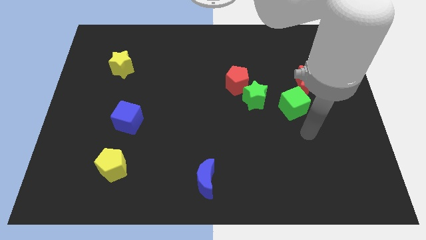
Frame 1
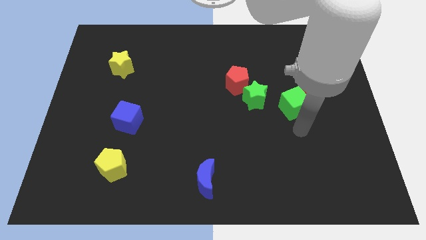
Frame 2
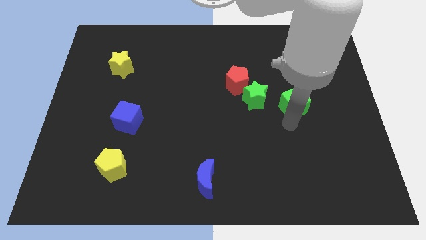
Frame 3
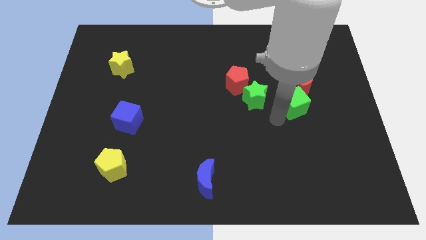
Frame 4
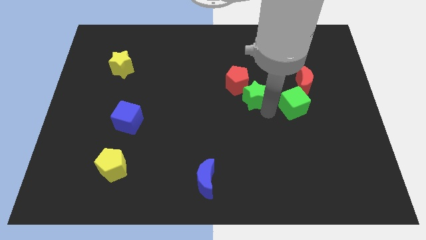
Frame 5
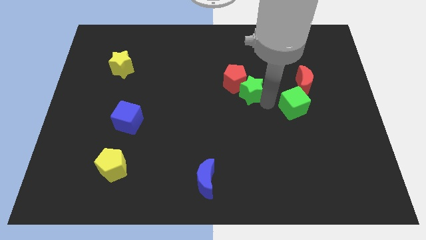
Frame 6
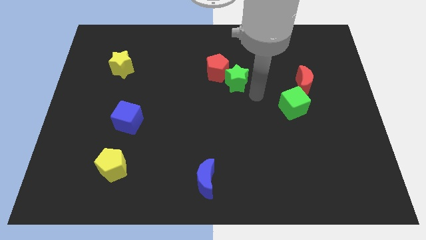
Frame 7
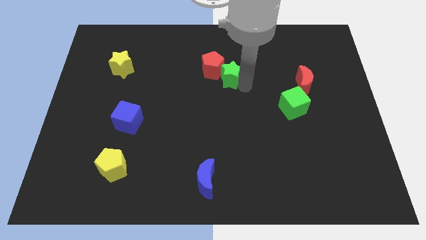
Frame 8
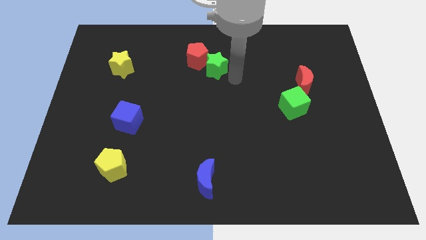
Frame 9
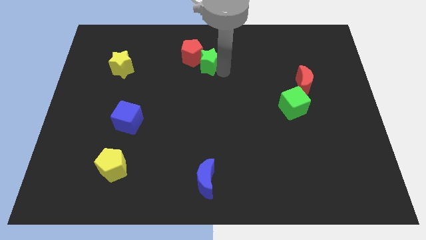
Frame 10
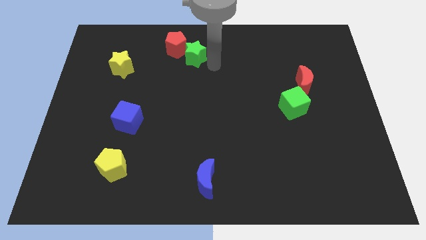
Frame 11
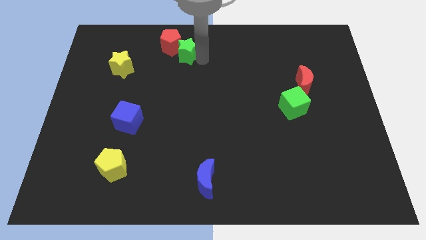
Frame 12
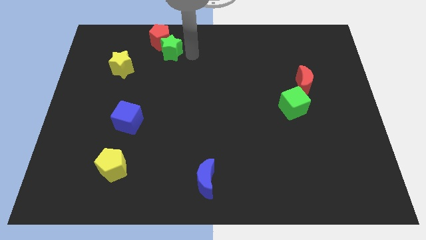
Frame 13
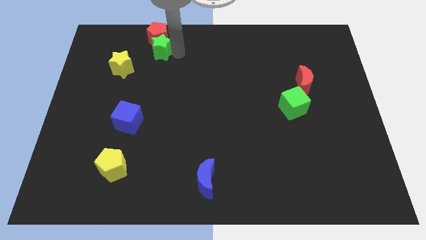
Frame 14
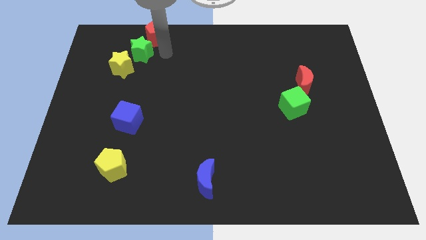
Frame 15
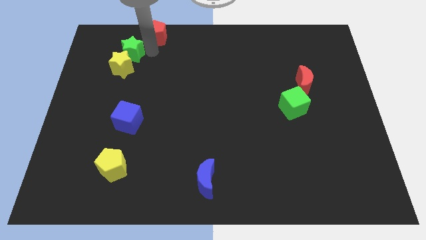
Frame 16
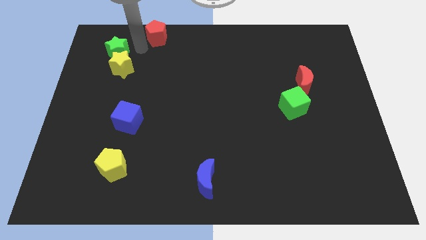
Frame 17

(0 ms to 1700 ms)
move the red pentagon away from the green star

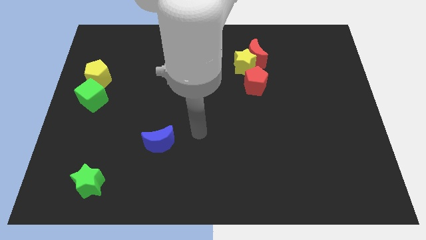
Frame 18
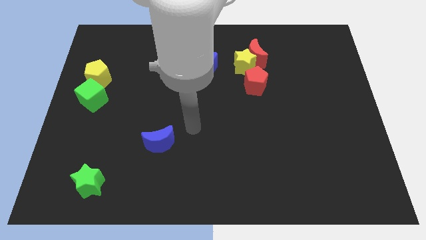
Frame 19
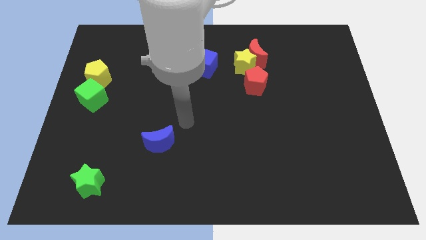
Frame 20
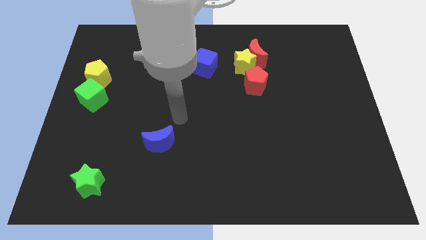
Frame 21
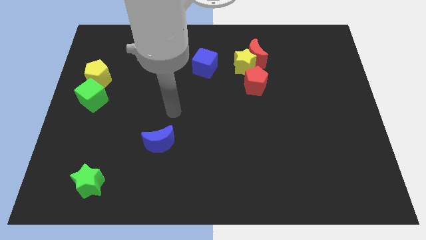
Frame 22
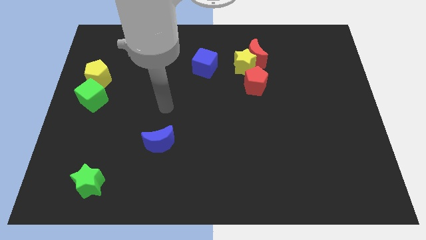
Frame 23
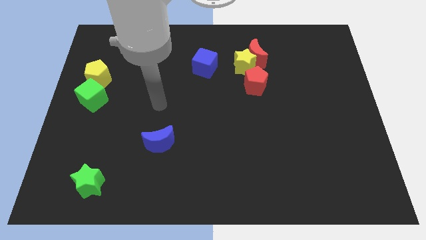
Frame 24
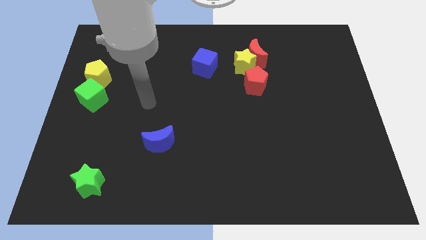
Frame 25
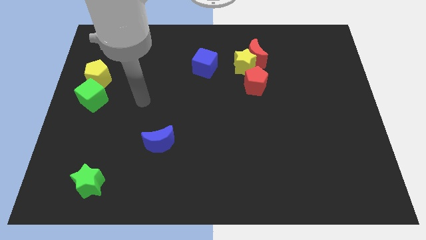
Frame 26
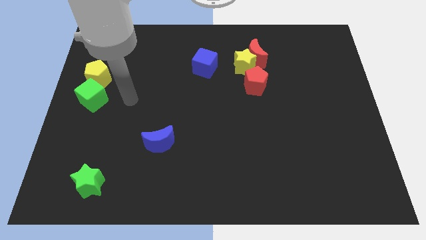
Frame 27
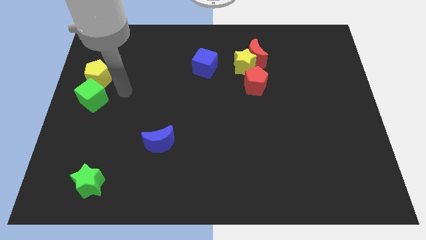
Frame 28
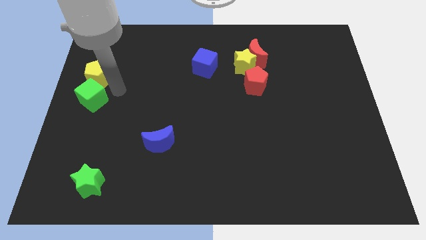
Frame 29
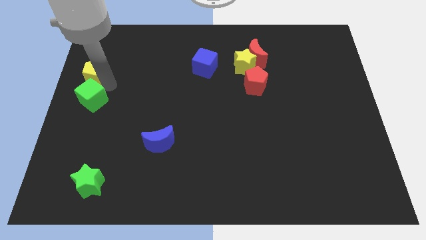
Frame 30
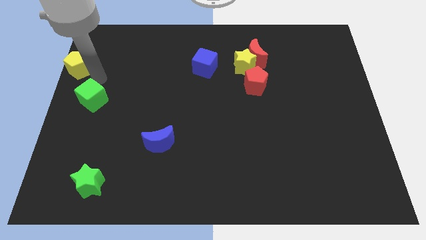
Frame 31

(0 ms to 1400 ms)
move the green cube away from the yellow pentagon

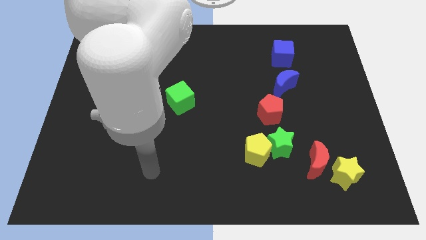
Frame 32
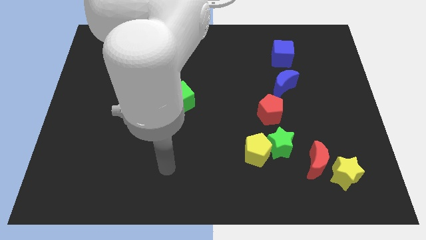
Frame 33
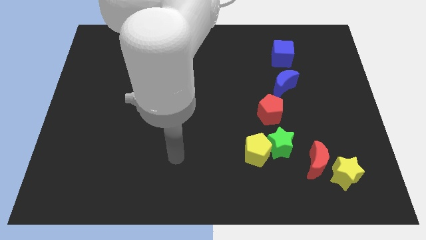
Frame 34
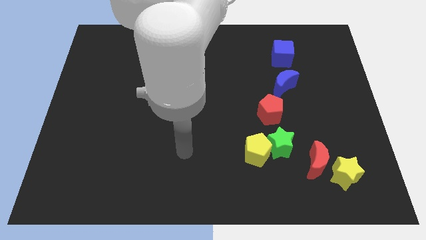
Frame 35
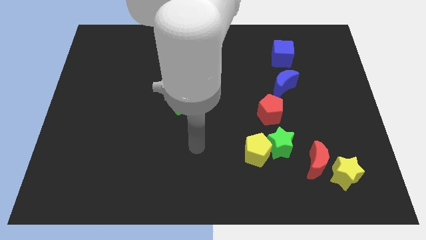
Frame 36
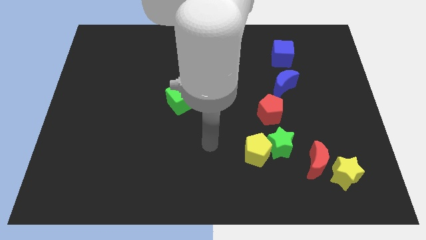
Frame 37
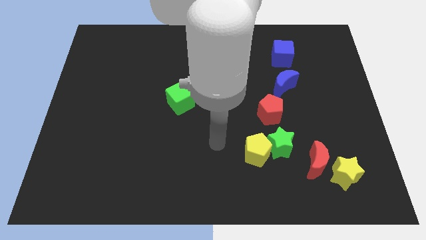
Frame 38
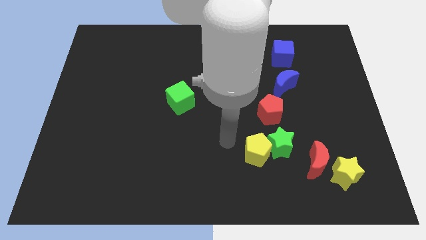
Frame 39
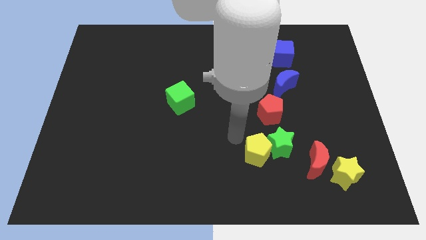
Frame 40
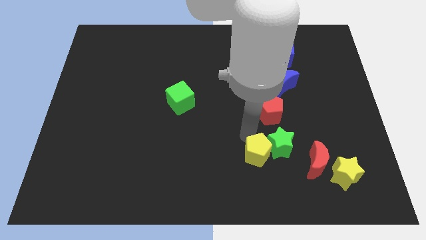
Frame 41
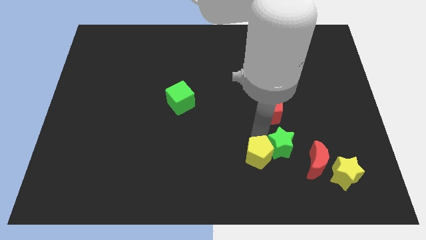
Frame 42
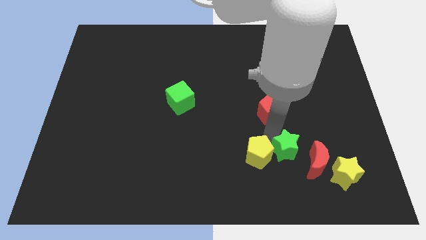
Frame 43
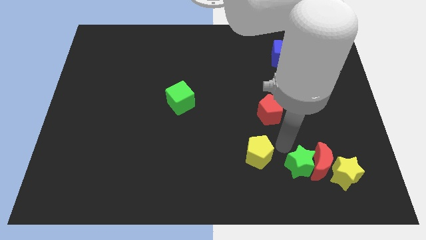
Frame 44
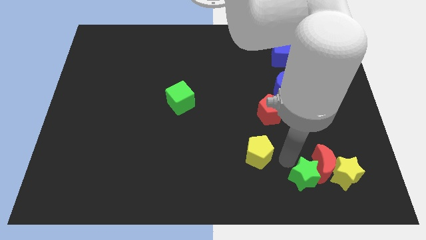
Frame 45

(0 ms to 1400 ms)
separate the yellow pentagon from the green star

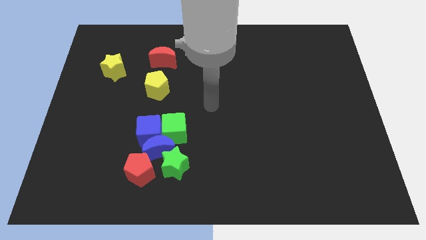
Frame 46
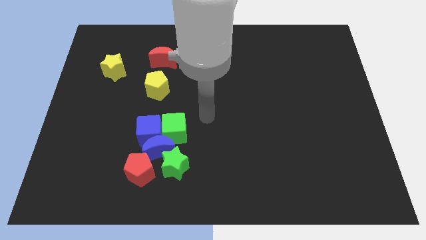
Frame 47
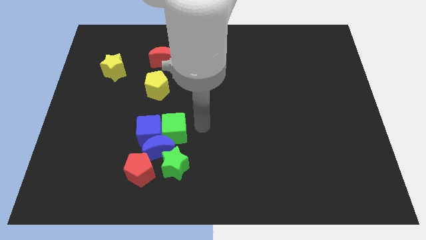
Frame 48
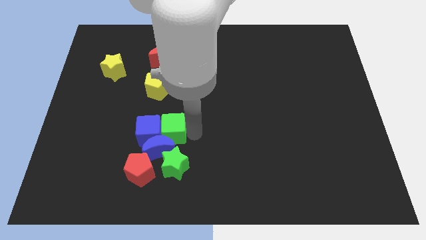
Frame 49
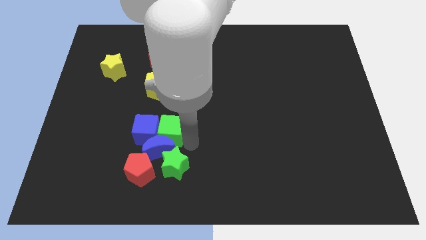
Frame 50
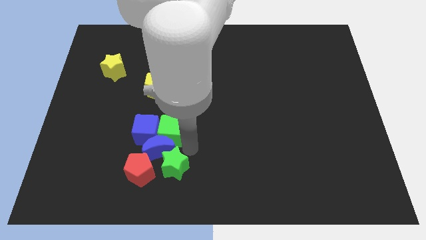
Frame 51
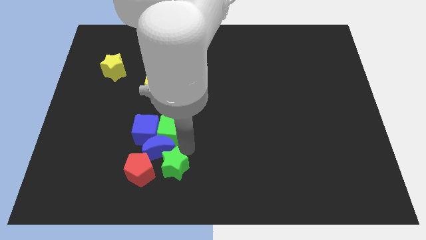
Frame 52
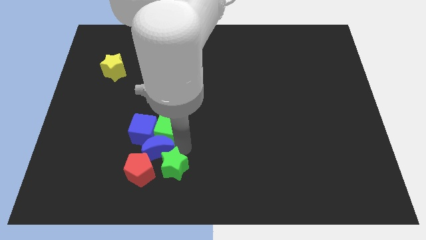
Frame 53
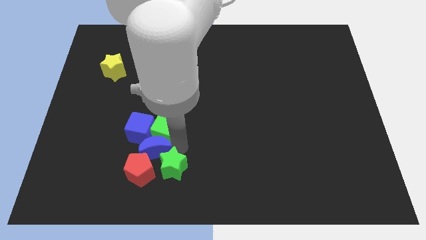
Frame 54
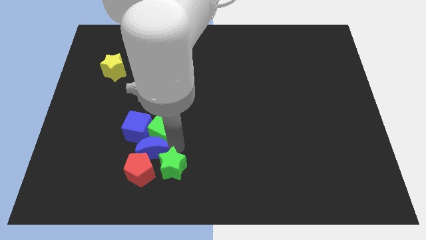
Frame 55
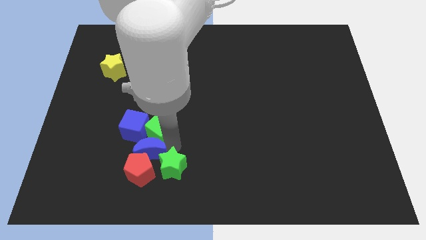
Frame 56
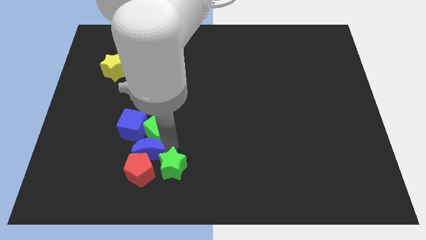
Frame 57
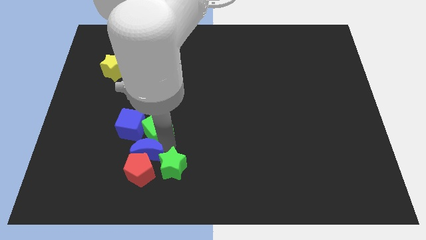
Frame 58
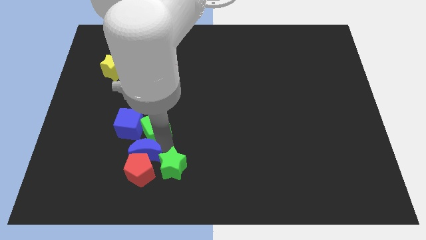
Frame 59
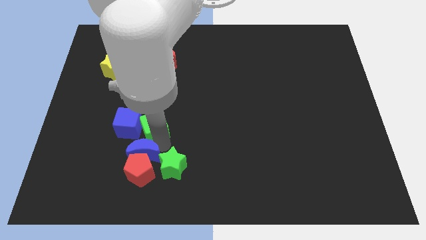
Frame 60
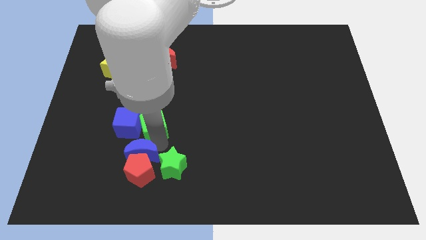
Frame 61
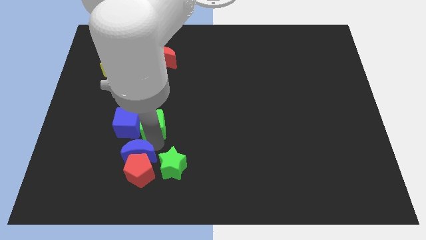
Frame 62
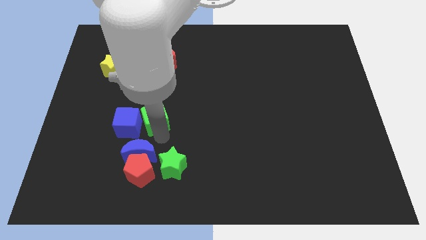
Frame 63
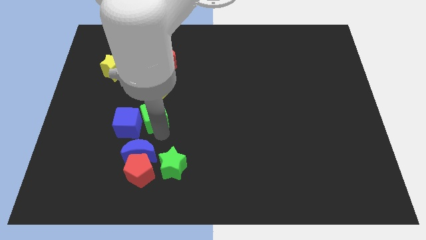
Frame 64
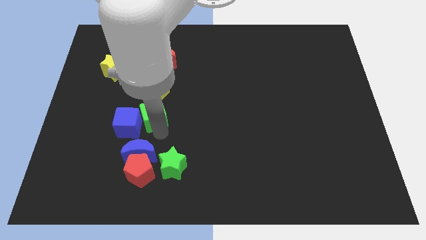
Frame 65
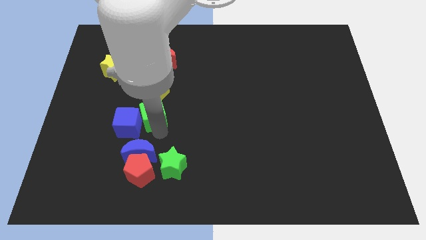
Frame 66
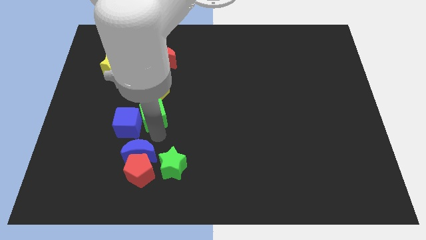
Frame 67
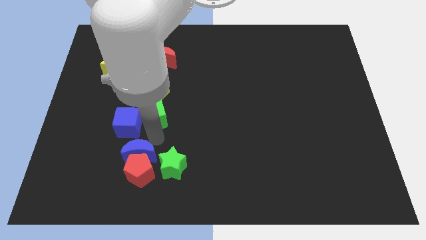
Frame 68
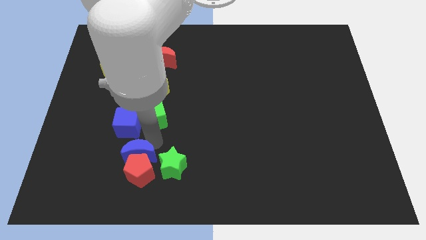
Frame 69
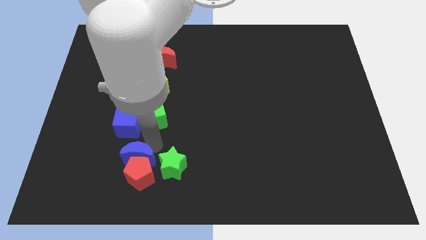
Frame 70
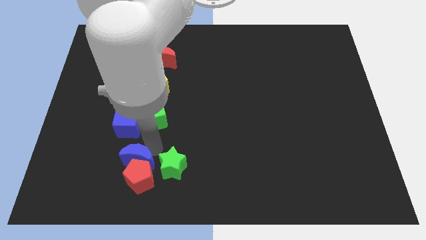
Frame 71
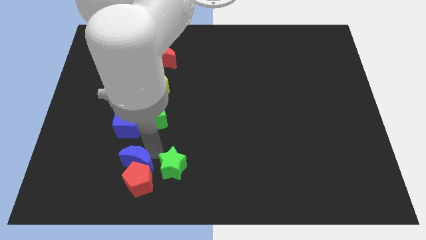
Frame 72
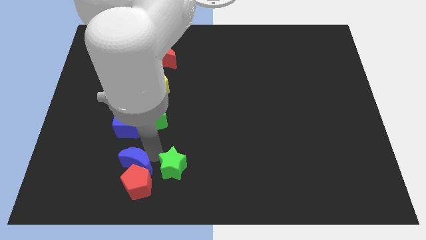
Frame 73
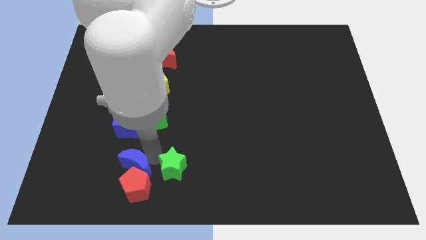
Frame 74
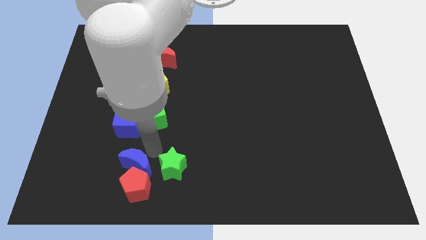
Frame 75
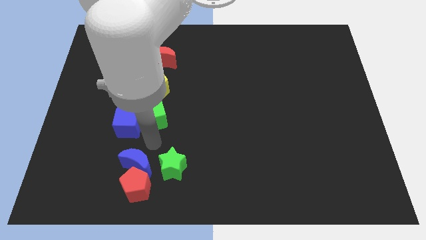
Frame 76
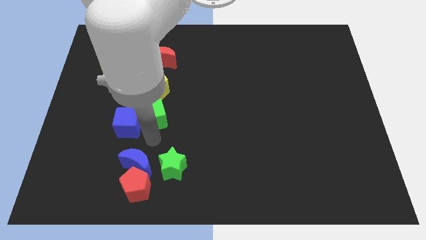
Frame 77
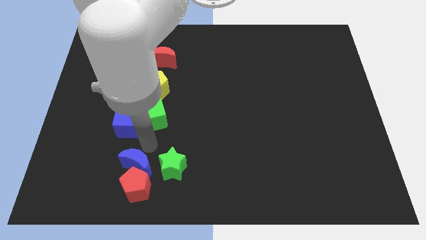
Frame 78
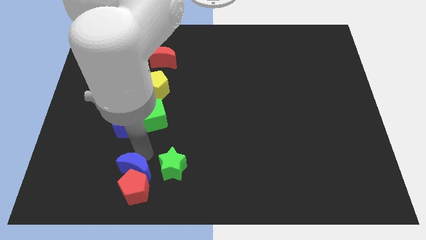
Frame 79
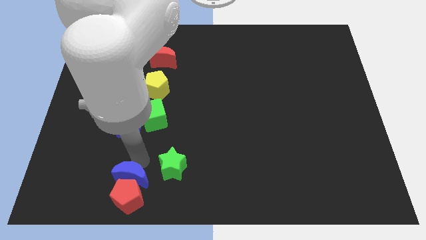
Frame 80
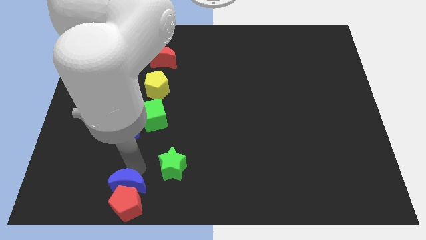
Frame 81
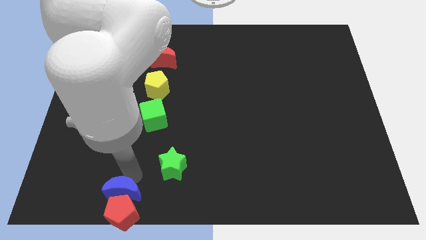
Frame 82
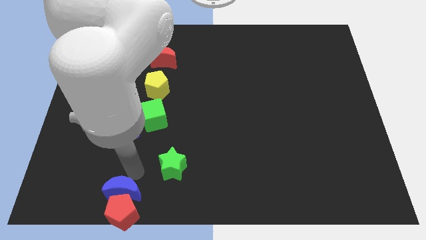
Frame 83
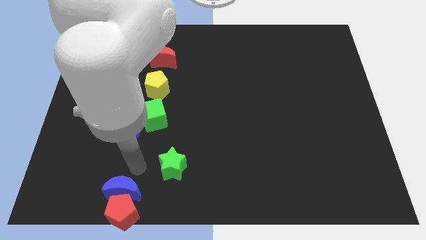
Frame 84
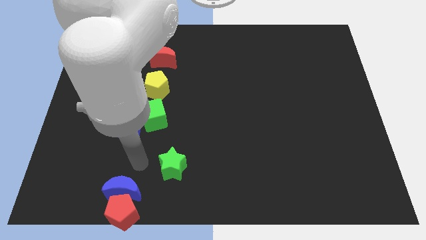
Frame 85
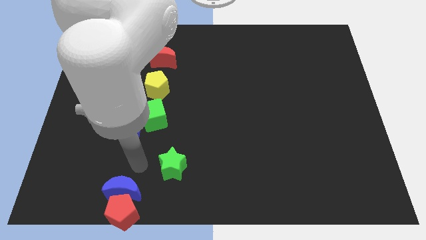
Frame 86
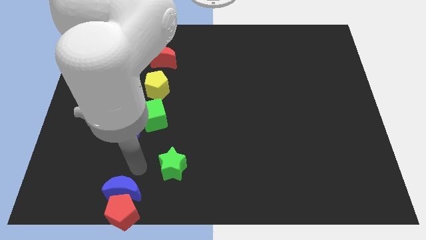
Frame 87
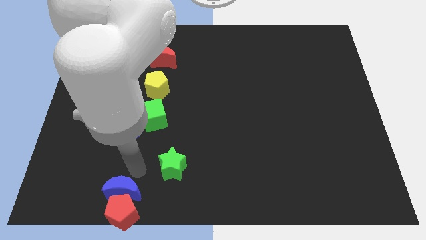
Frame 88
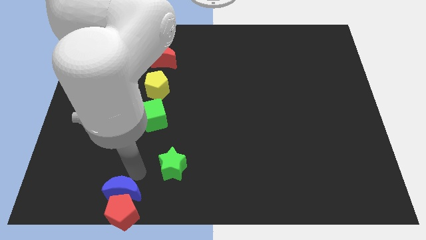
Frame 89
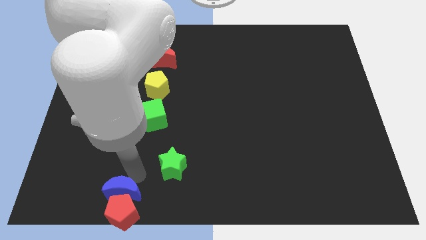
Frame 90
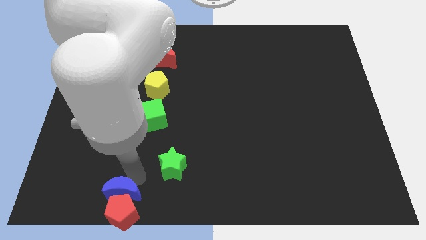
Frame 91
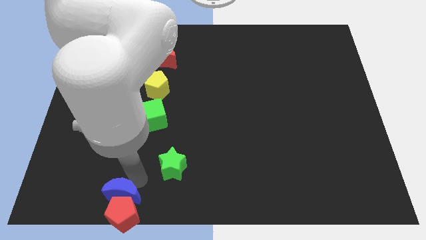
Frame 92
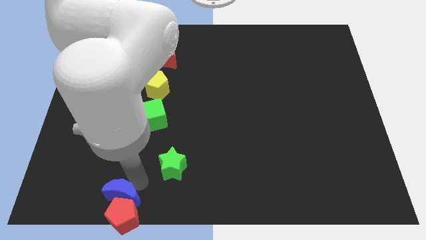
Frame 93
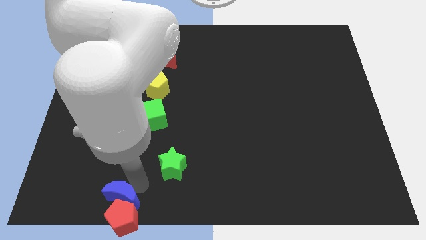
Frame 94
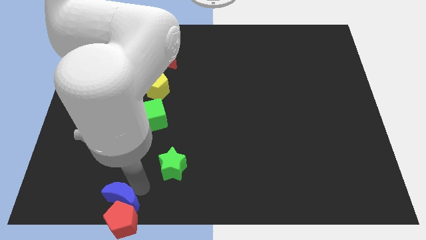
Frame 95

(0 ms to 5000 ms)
separate the blue moon from the group of blocks

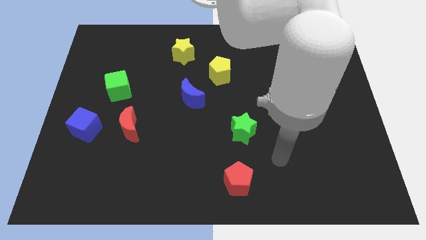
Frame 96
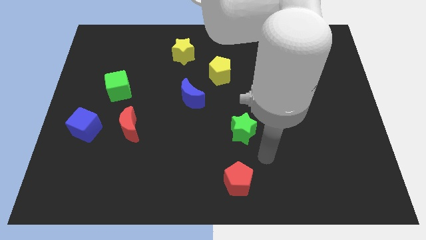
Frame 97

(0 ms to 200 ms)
pull the red moon apart from the blue cube
